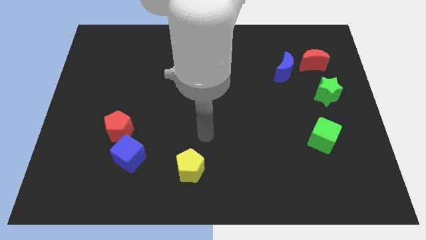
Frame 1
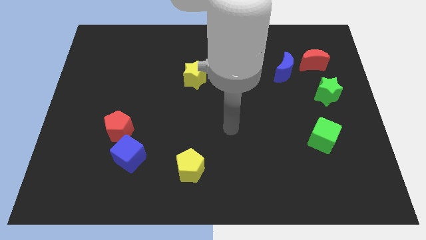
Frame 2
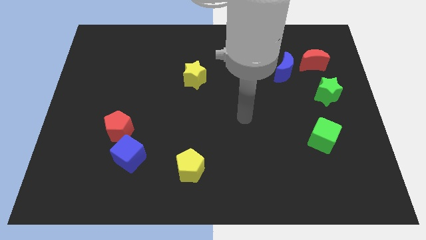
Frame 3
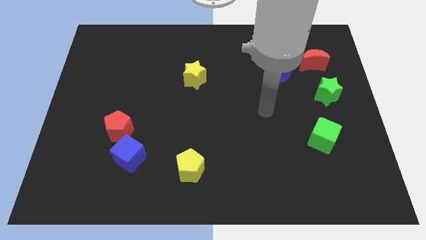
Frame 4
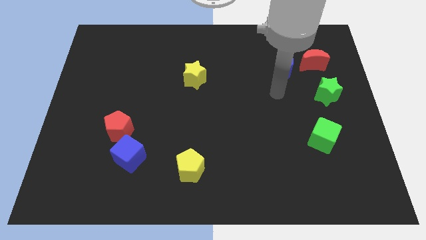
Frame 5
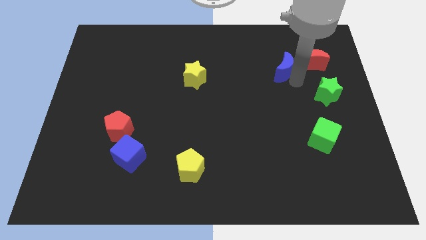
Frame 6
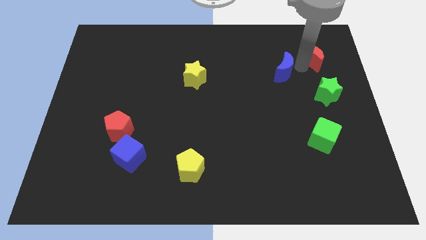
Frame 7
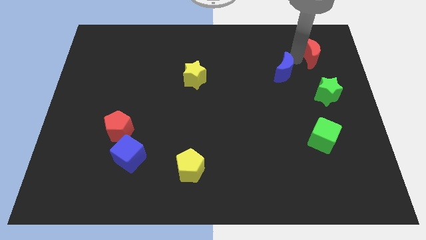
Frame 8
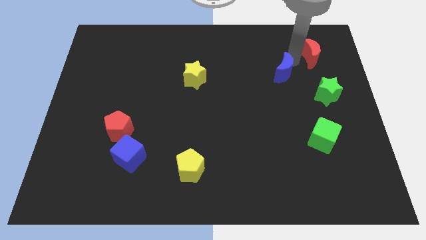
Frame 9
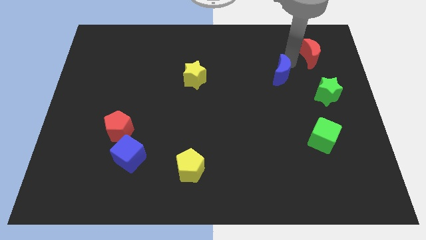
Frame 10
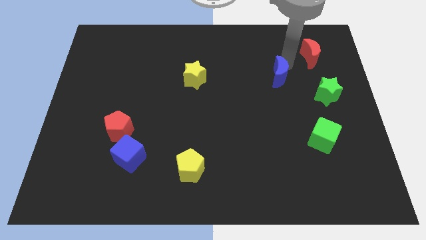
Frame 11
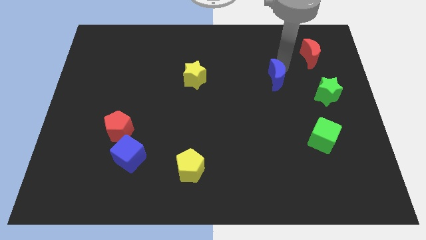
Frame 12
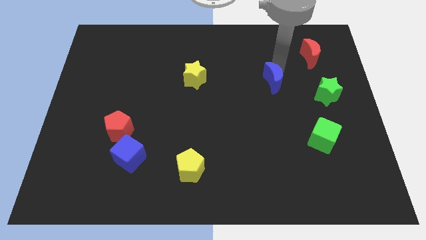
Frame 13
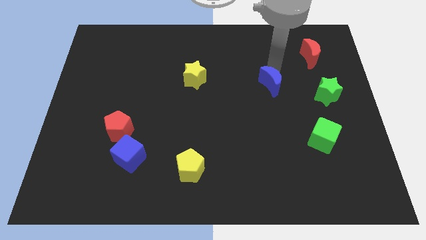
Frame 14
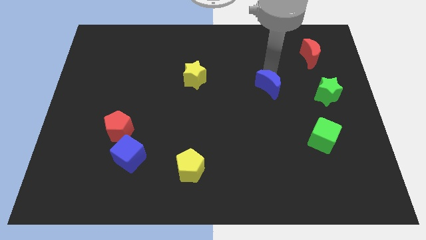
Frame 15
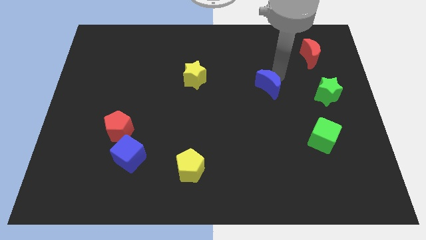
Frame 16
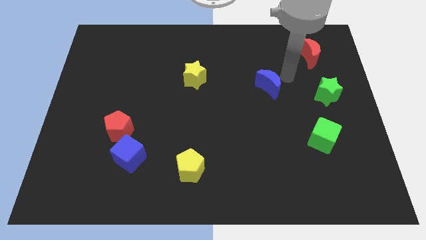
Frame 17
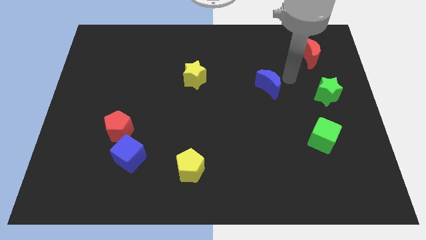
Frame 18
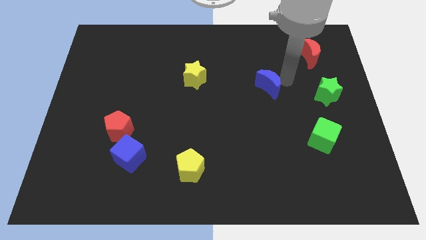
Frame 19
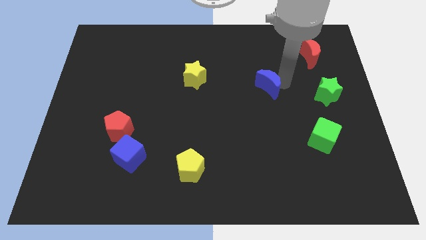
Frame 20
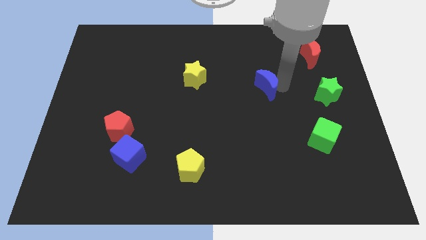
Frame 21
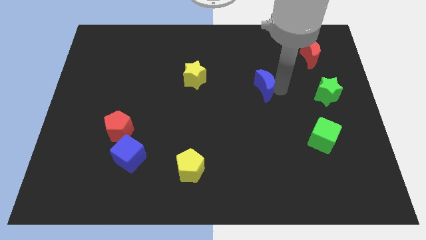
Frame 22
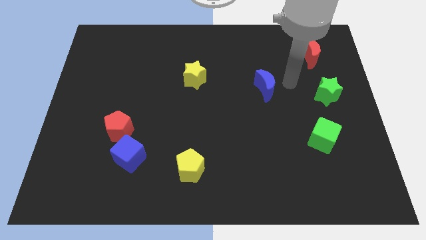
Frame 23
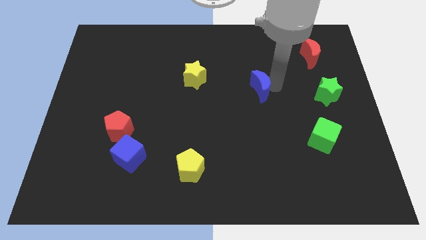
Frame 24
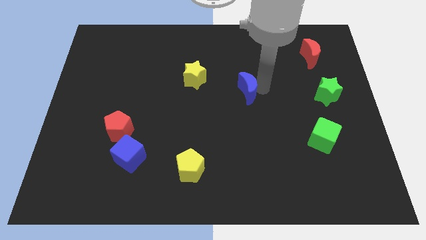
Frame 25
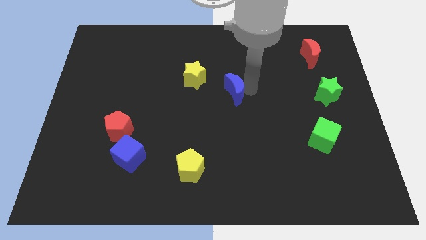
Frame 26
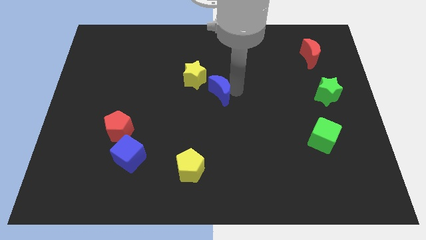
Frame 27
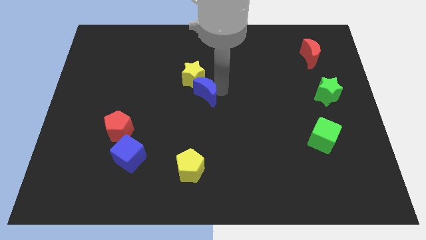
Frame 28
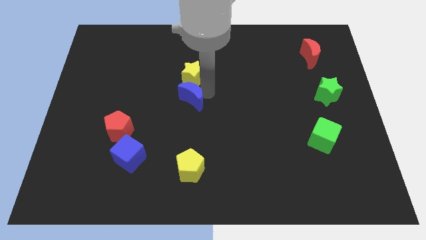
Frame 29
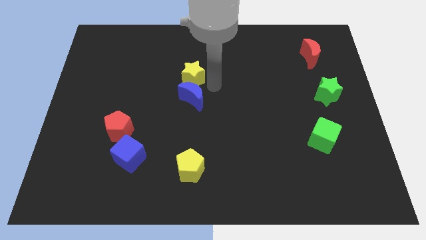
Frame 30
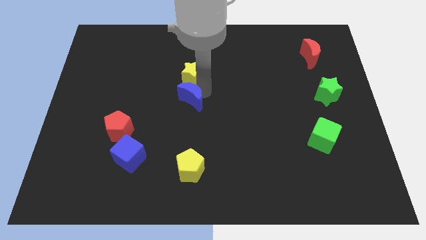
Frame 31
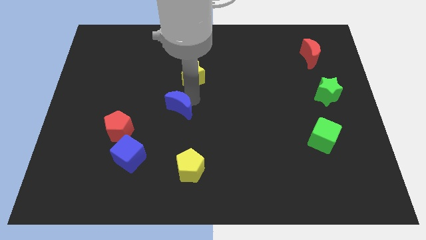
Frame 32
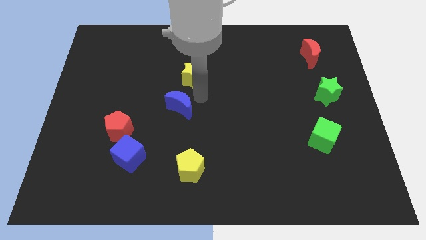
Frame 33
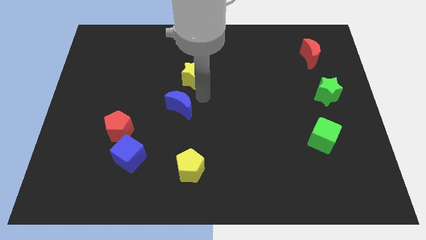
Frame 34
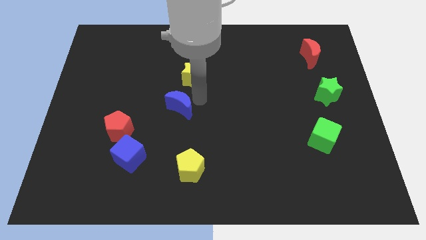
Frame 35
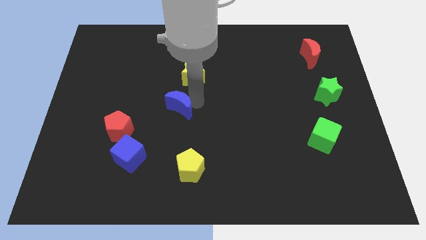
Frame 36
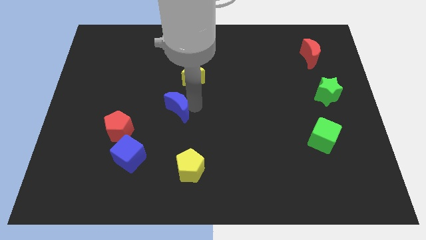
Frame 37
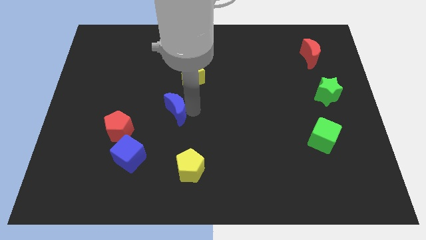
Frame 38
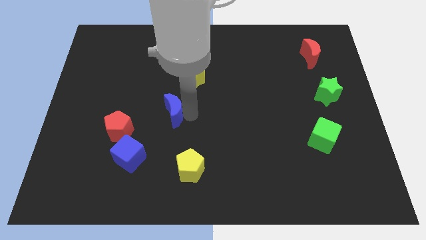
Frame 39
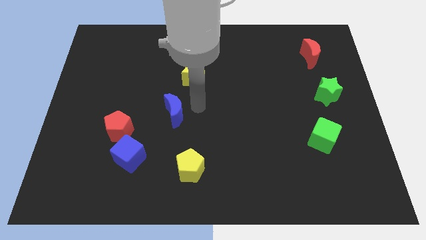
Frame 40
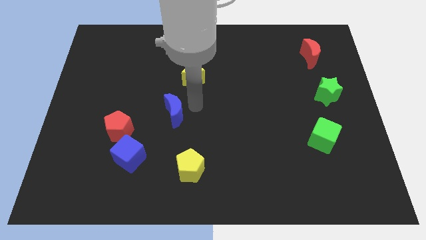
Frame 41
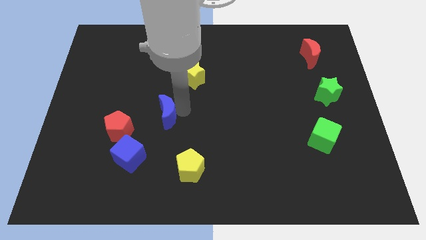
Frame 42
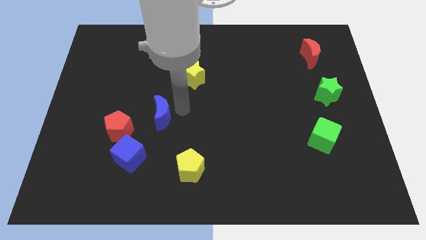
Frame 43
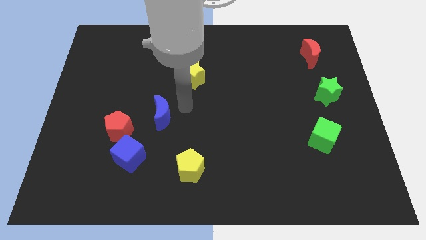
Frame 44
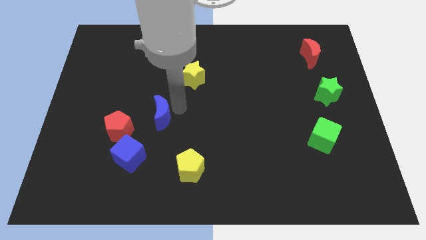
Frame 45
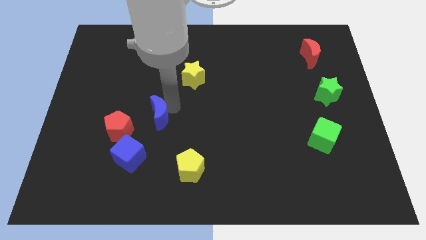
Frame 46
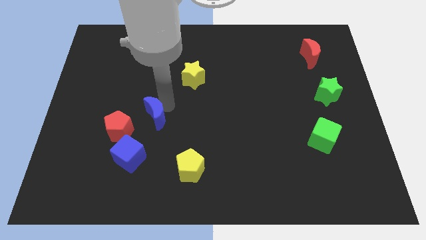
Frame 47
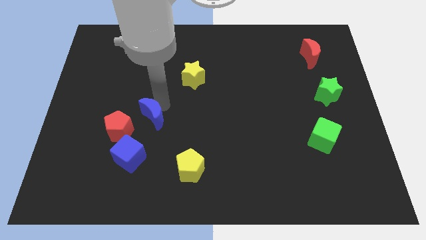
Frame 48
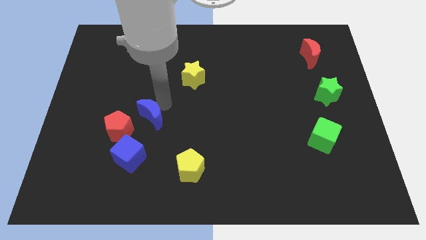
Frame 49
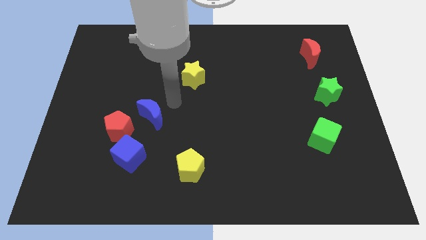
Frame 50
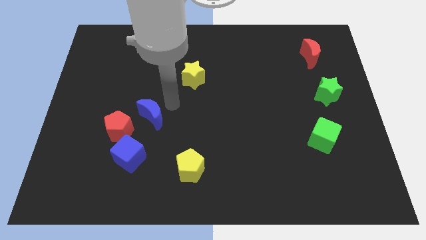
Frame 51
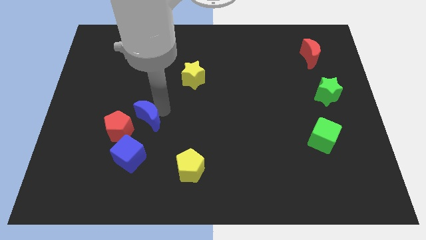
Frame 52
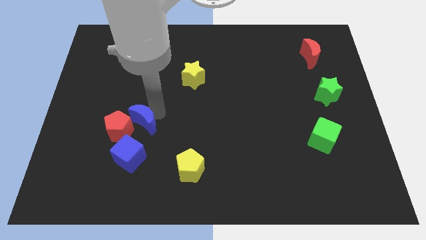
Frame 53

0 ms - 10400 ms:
slide the blue moon towards the red pentagon

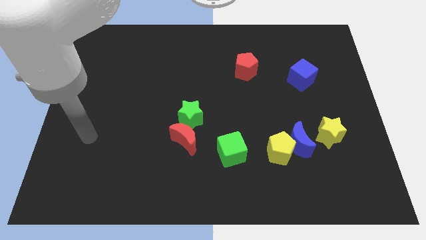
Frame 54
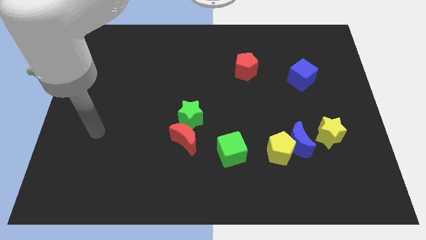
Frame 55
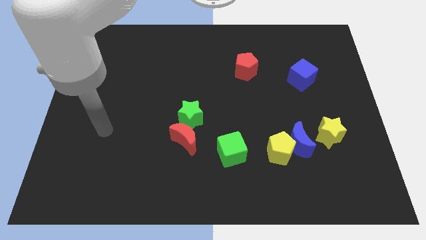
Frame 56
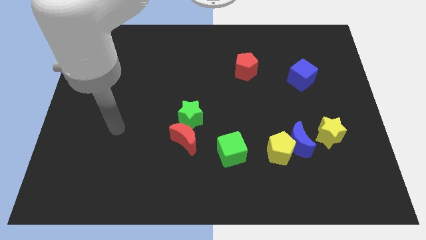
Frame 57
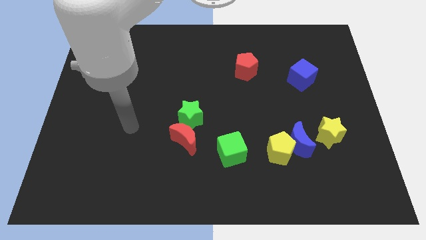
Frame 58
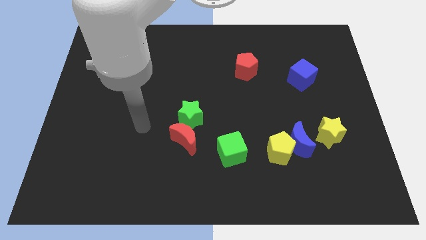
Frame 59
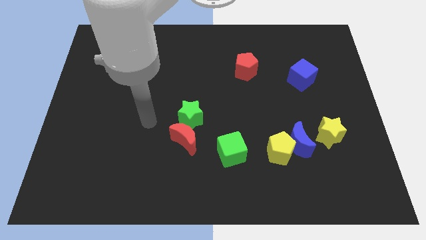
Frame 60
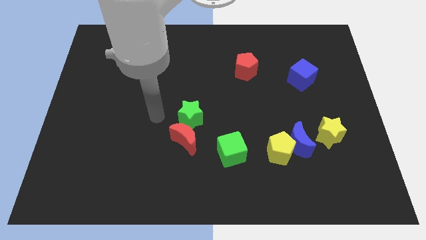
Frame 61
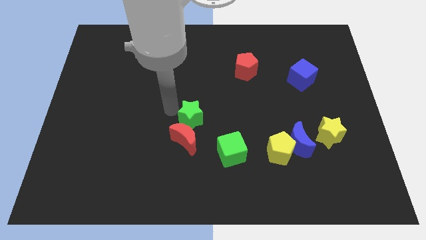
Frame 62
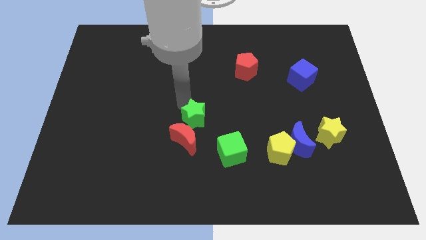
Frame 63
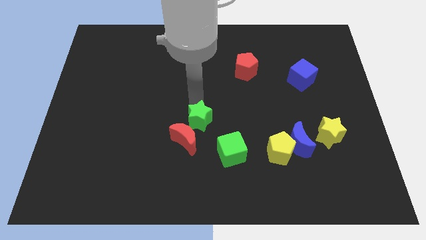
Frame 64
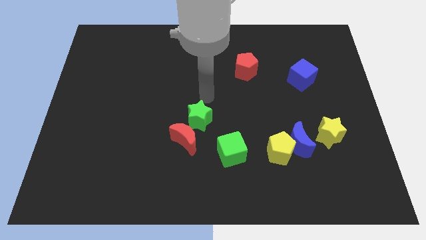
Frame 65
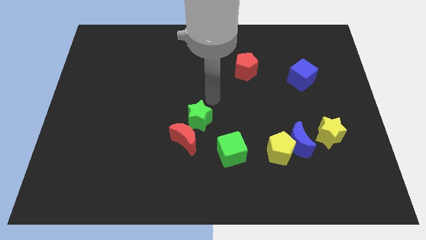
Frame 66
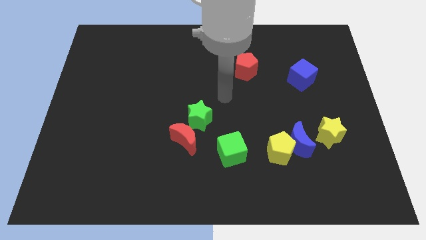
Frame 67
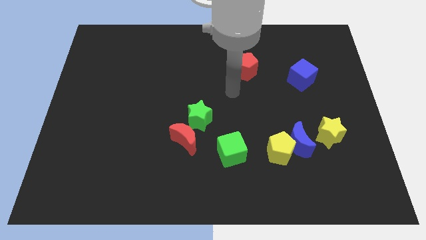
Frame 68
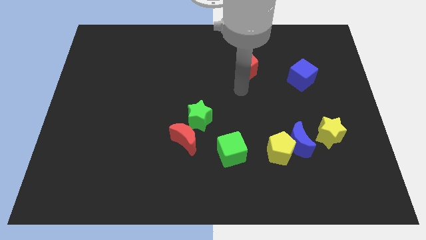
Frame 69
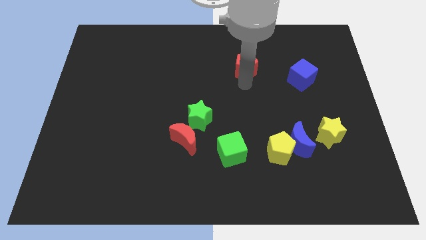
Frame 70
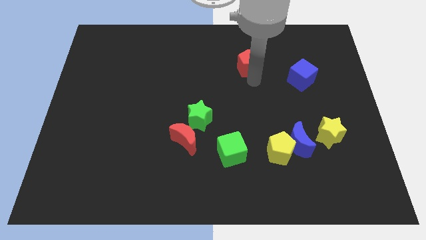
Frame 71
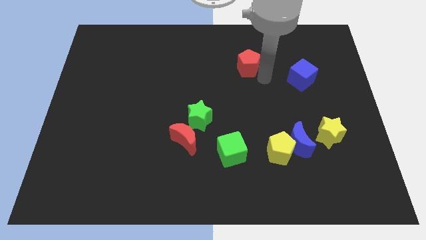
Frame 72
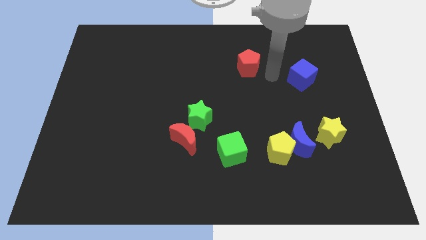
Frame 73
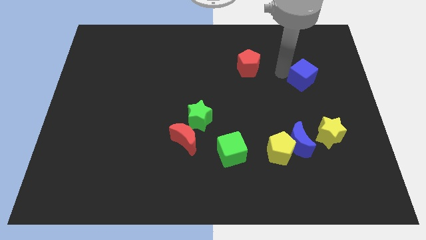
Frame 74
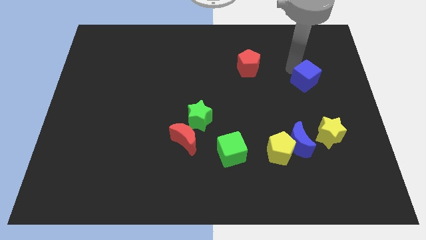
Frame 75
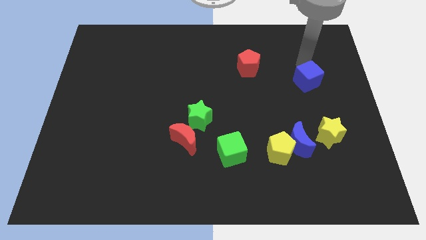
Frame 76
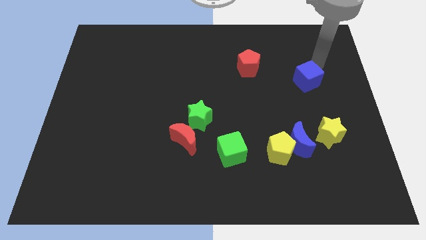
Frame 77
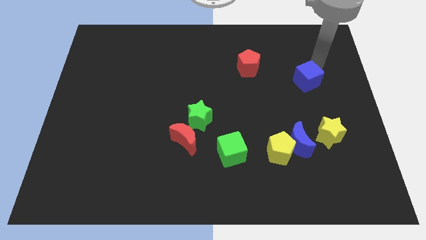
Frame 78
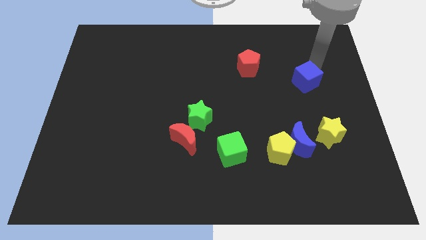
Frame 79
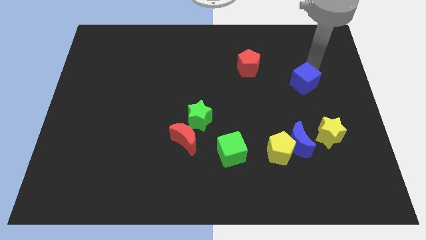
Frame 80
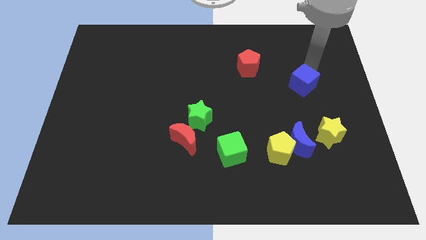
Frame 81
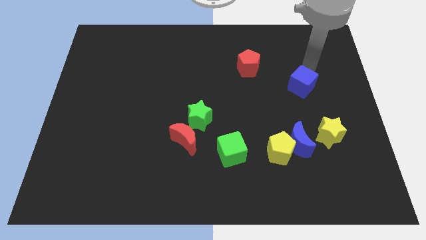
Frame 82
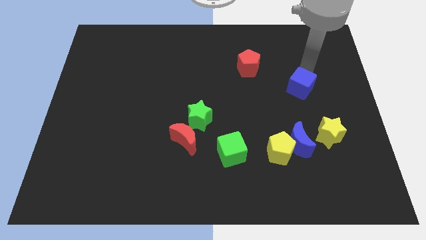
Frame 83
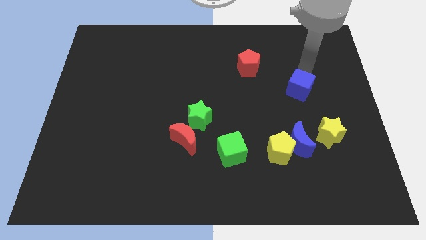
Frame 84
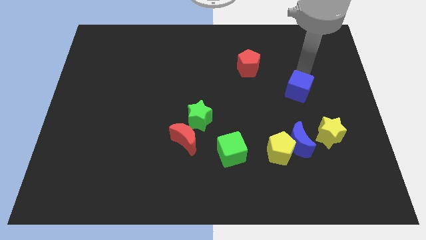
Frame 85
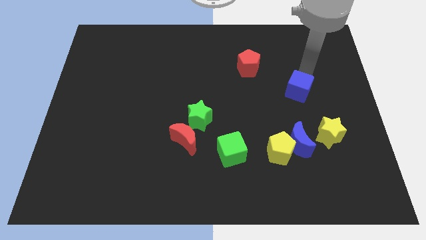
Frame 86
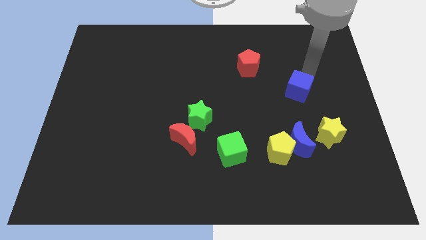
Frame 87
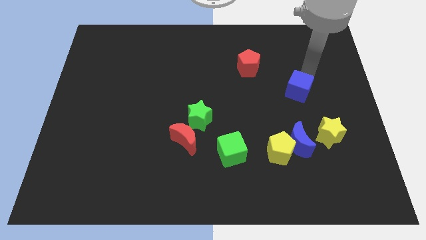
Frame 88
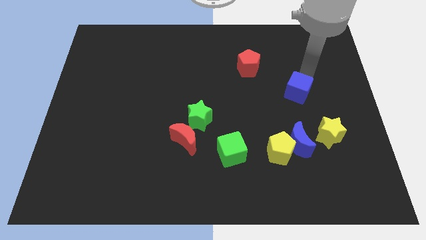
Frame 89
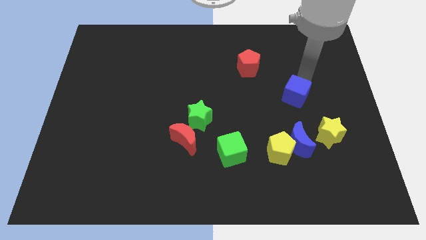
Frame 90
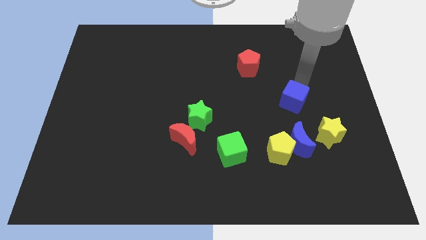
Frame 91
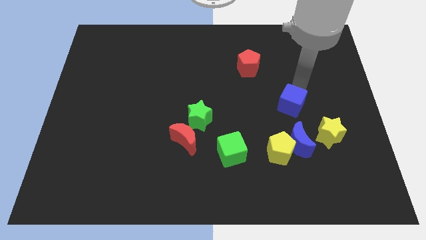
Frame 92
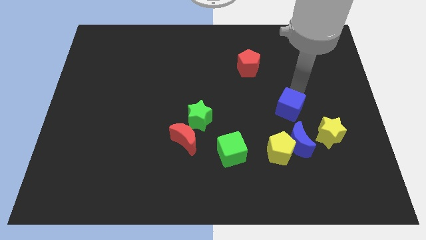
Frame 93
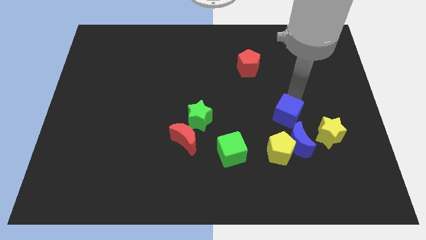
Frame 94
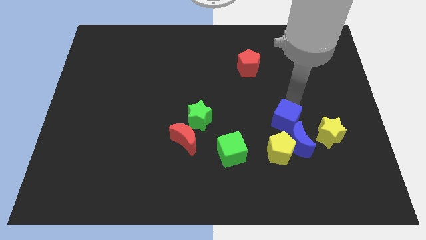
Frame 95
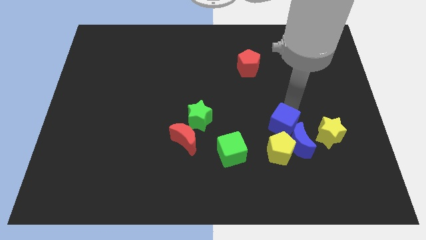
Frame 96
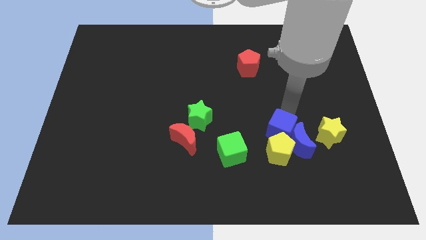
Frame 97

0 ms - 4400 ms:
put the blue cube next to the yellow pentagon
